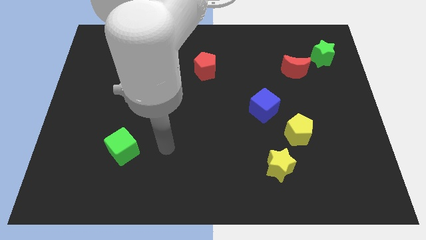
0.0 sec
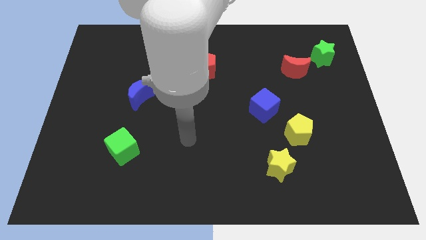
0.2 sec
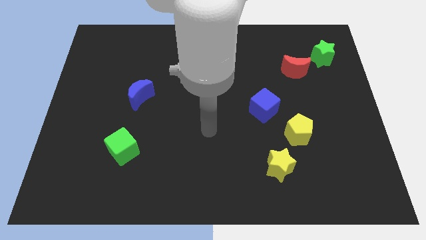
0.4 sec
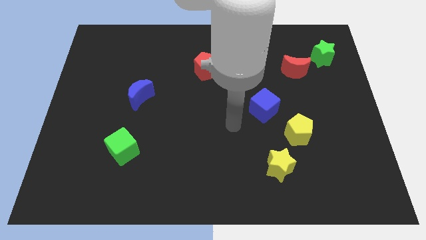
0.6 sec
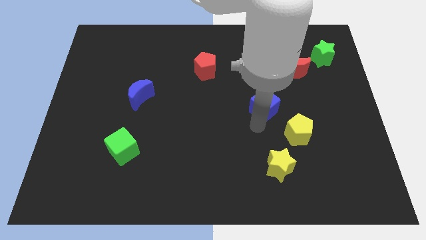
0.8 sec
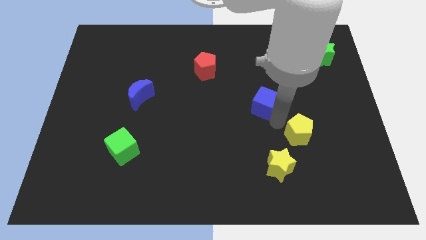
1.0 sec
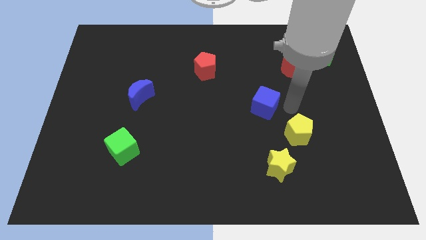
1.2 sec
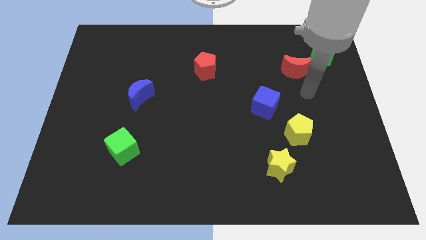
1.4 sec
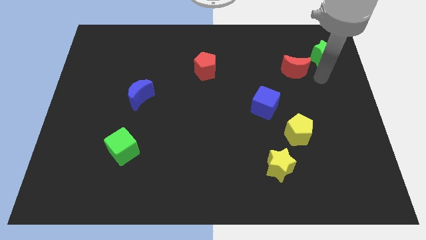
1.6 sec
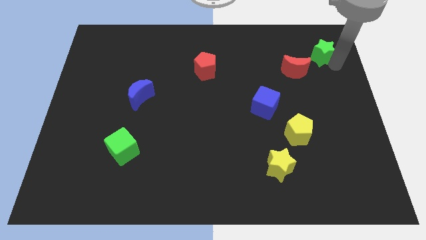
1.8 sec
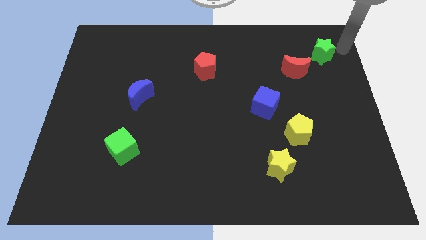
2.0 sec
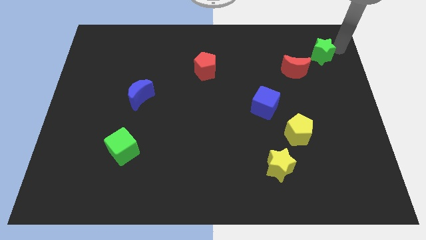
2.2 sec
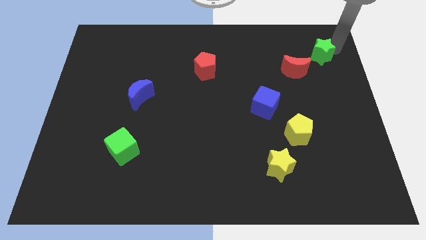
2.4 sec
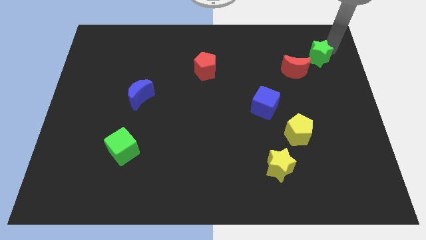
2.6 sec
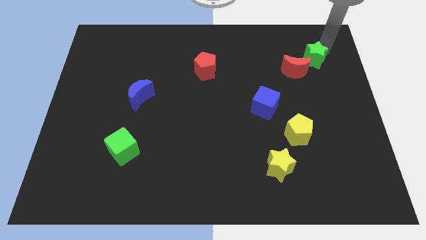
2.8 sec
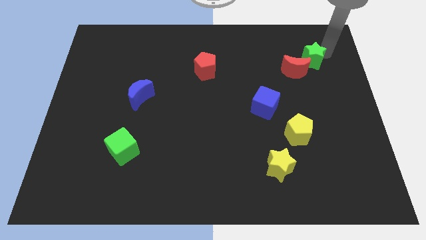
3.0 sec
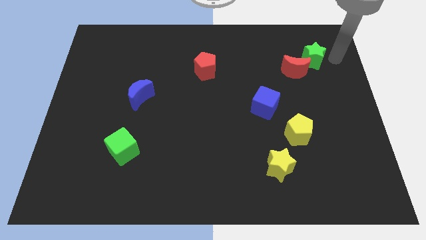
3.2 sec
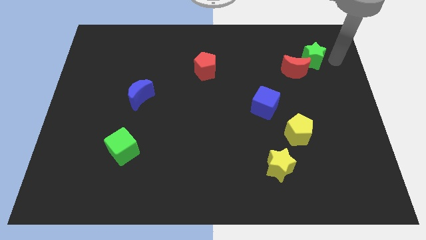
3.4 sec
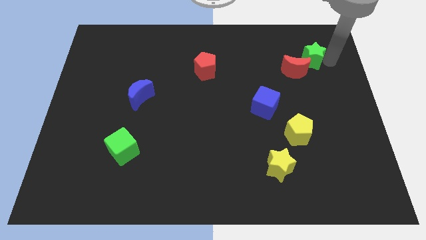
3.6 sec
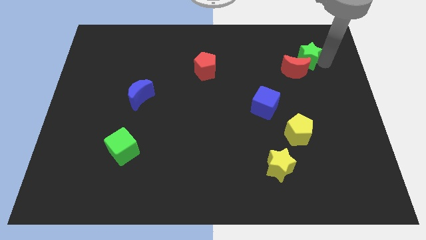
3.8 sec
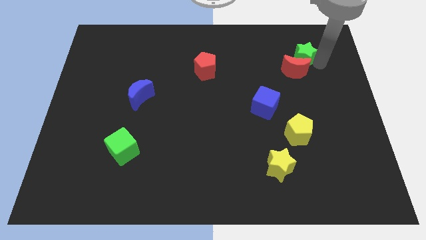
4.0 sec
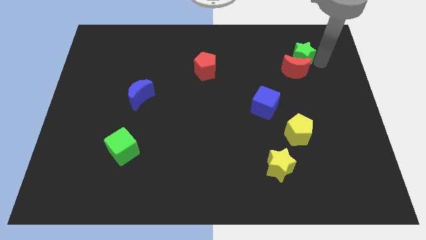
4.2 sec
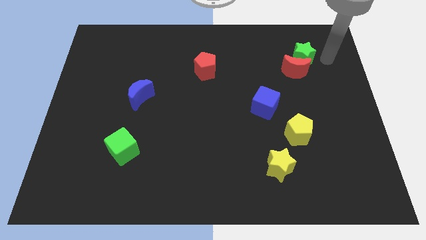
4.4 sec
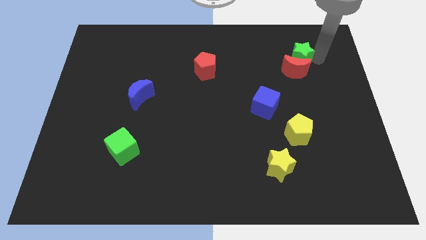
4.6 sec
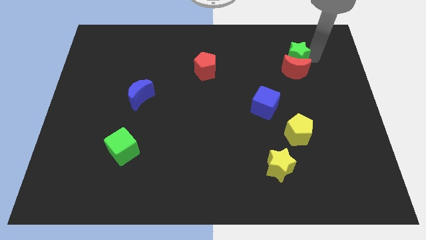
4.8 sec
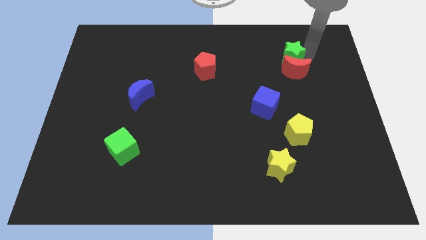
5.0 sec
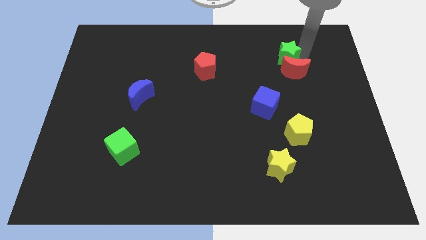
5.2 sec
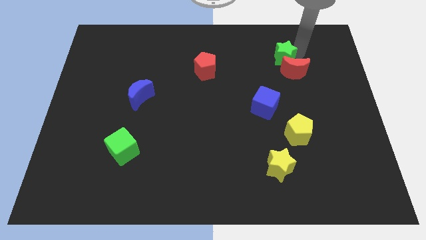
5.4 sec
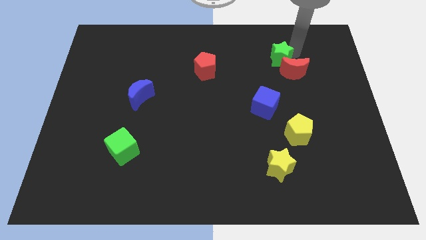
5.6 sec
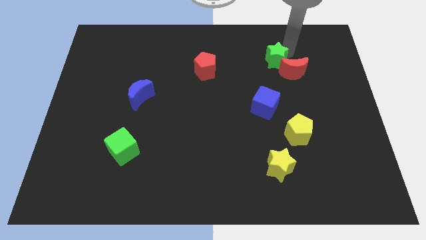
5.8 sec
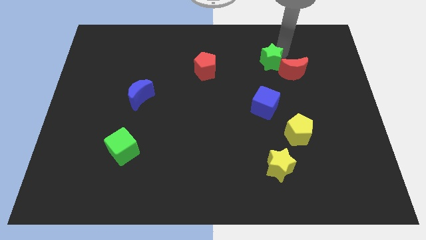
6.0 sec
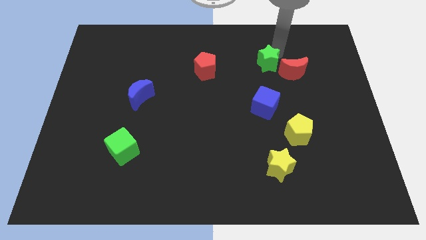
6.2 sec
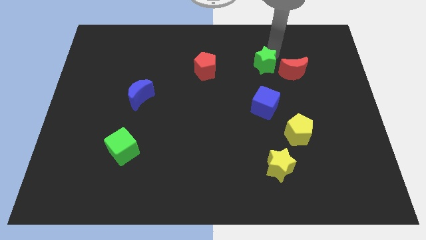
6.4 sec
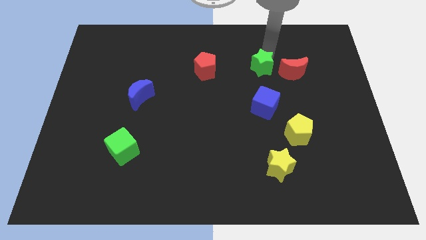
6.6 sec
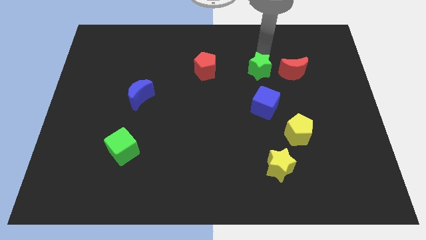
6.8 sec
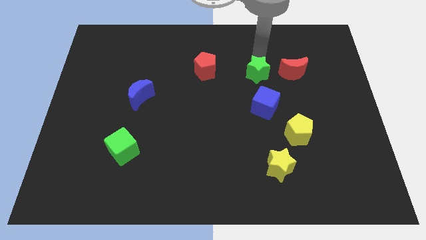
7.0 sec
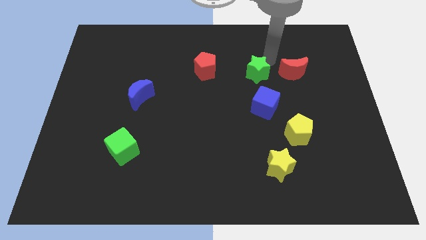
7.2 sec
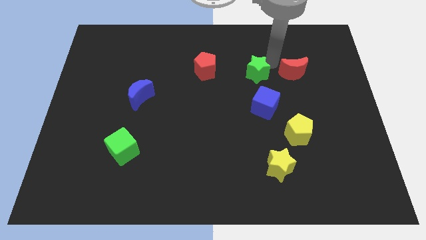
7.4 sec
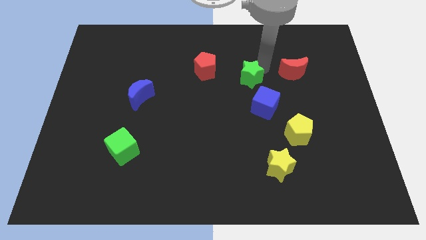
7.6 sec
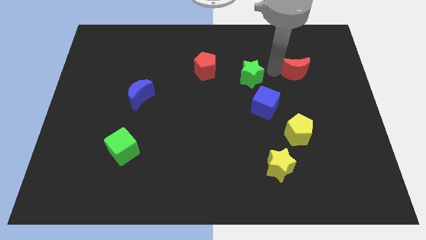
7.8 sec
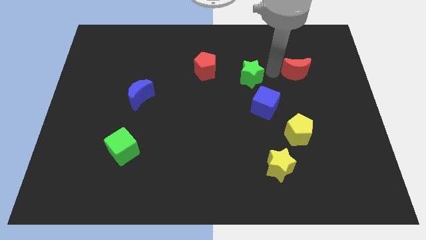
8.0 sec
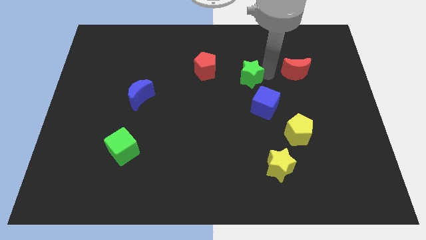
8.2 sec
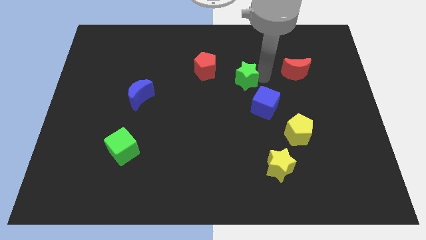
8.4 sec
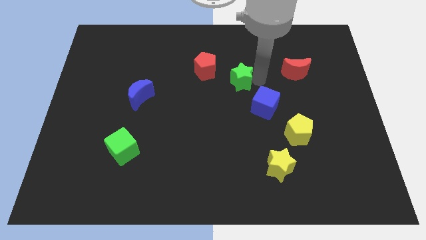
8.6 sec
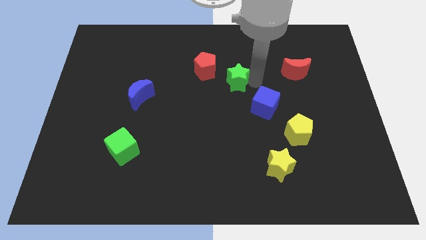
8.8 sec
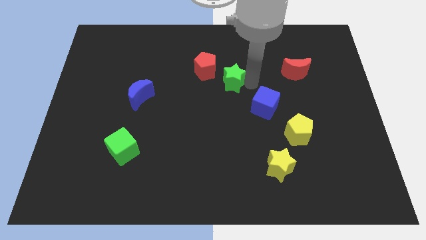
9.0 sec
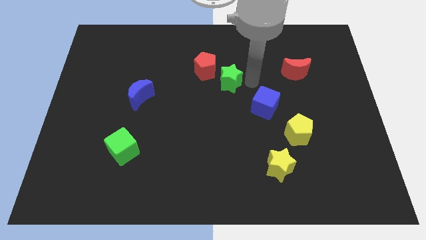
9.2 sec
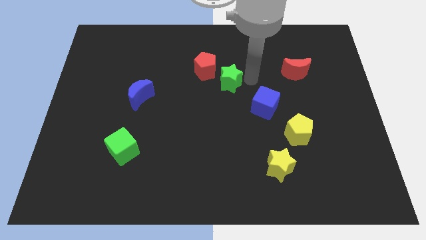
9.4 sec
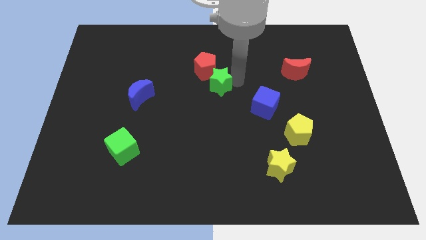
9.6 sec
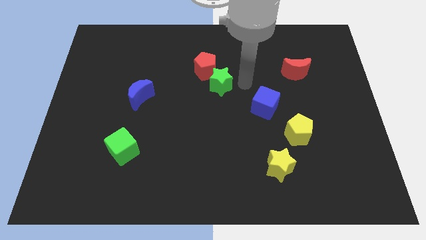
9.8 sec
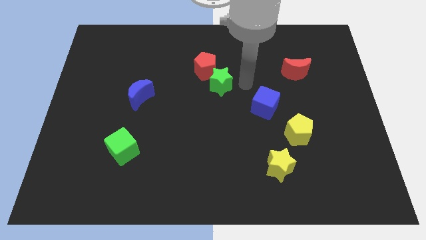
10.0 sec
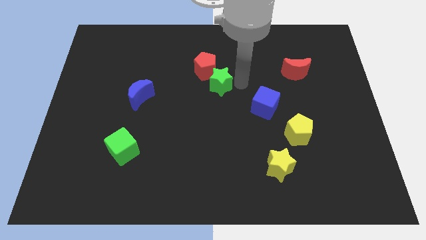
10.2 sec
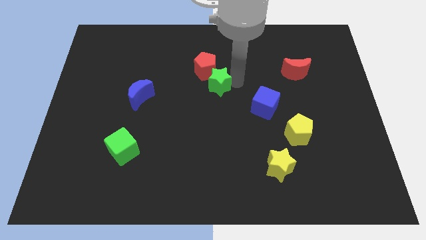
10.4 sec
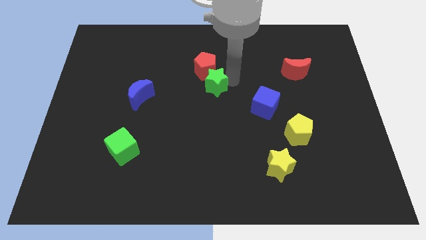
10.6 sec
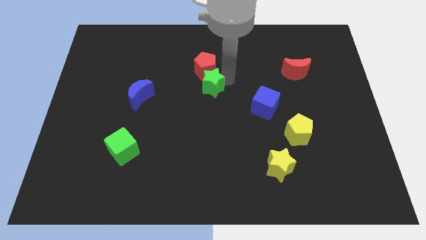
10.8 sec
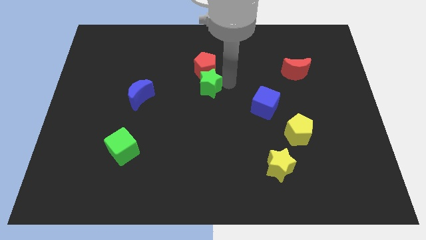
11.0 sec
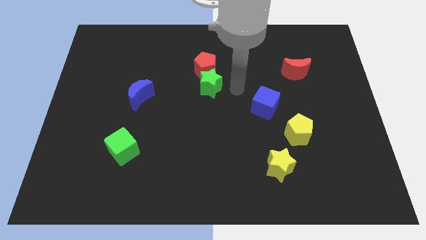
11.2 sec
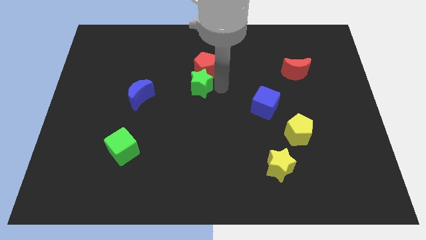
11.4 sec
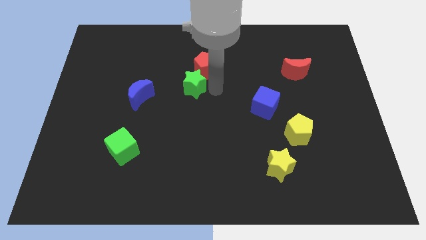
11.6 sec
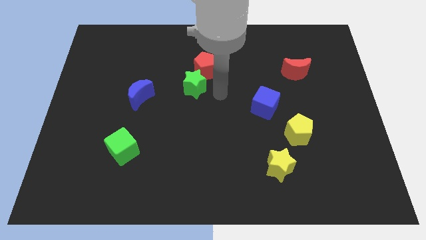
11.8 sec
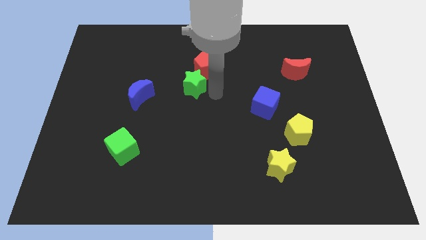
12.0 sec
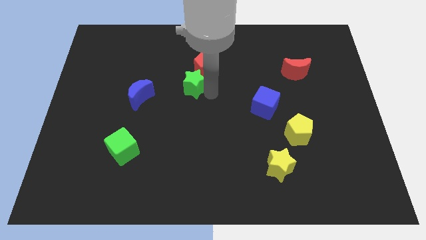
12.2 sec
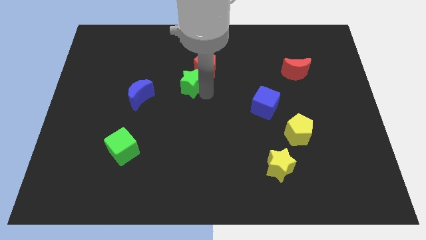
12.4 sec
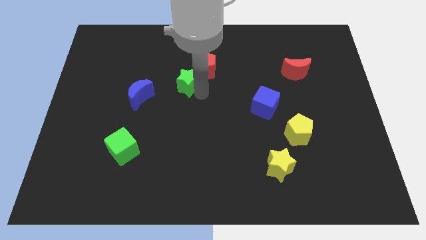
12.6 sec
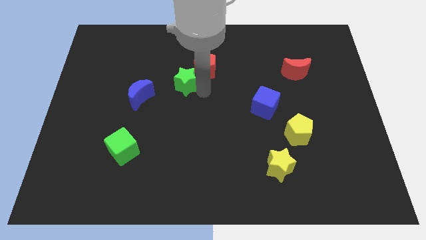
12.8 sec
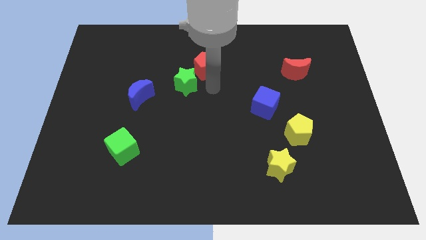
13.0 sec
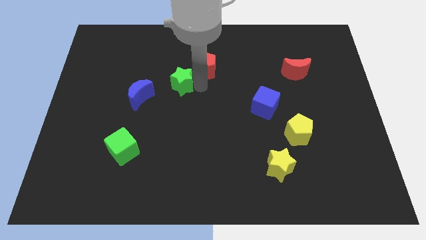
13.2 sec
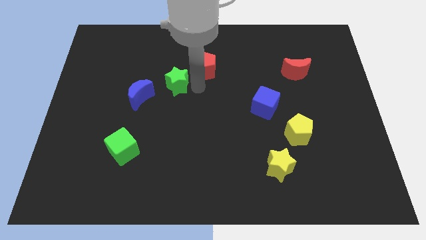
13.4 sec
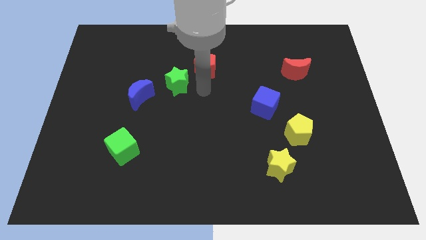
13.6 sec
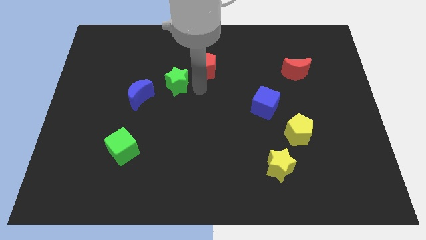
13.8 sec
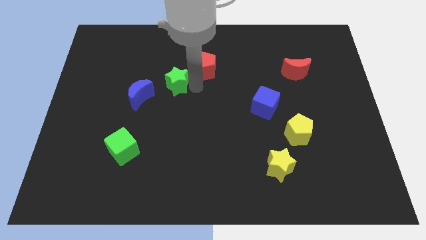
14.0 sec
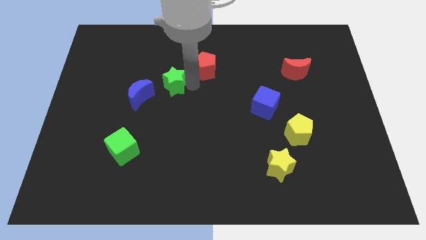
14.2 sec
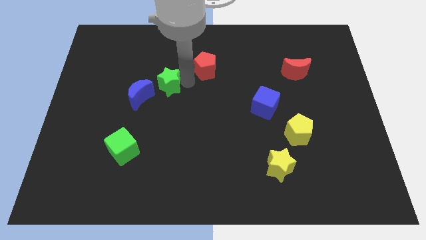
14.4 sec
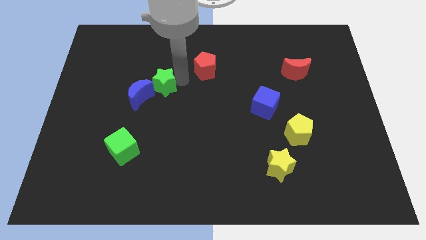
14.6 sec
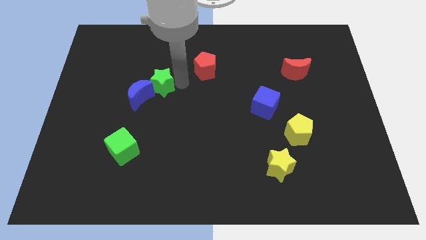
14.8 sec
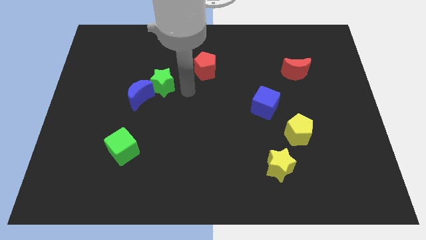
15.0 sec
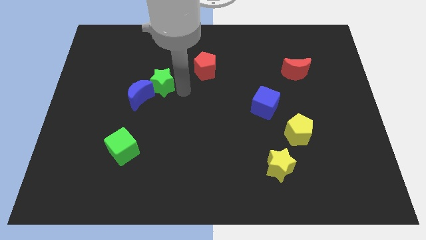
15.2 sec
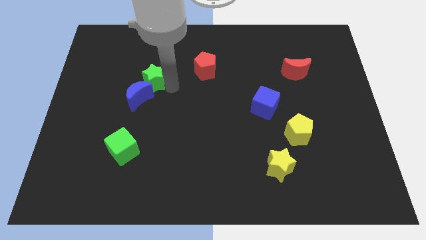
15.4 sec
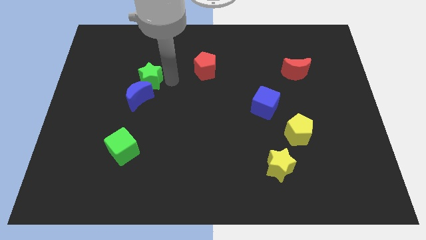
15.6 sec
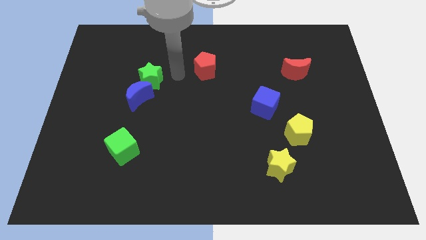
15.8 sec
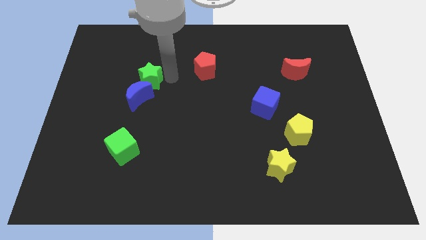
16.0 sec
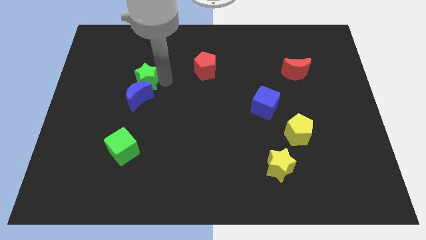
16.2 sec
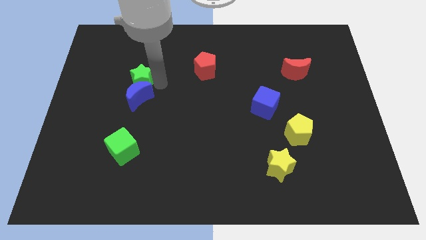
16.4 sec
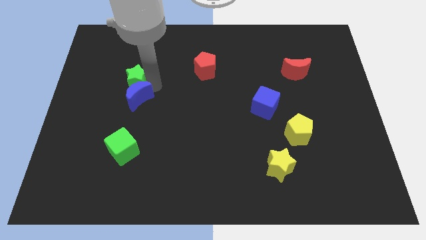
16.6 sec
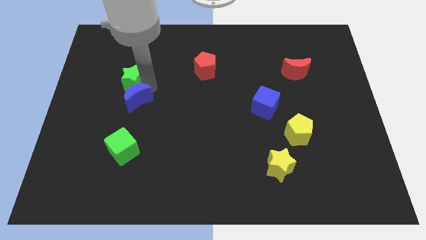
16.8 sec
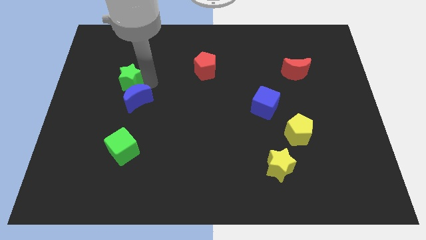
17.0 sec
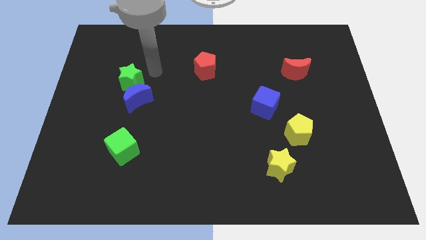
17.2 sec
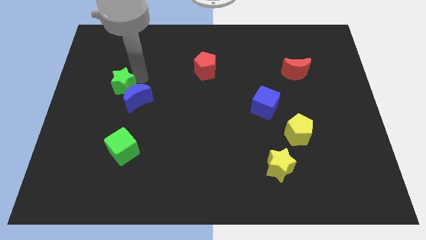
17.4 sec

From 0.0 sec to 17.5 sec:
push the green star to the left of the blue moon
